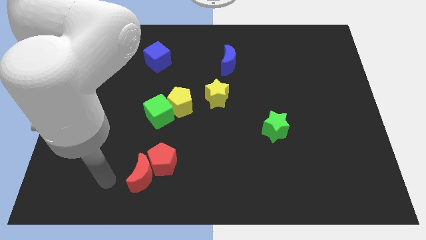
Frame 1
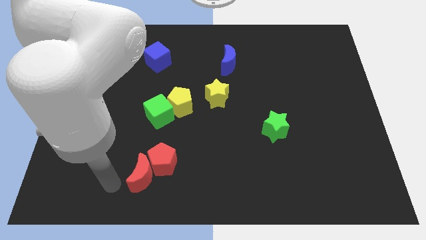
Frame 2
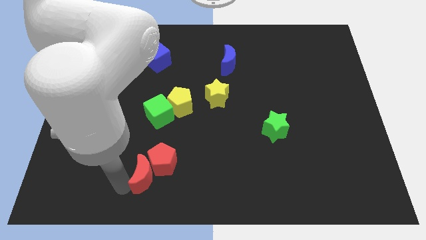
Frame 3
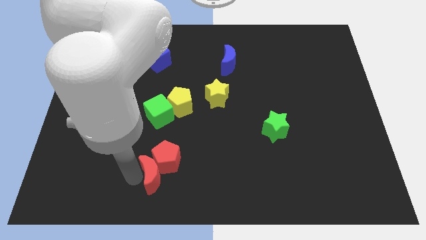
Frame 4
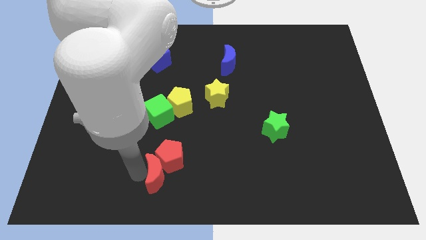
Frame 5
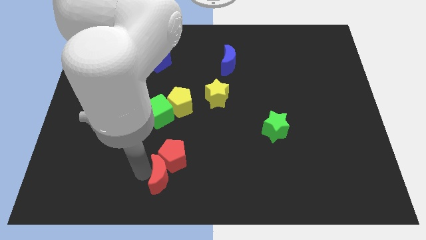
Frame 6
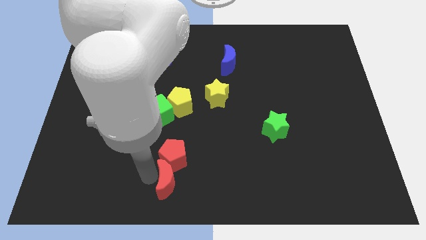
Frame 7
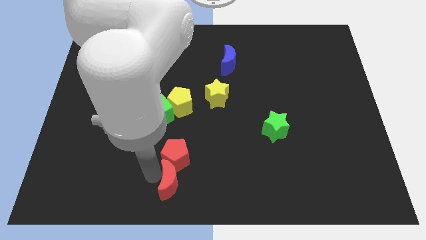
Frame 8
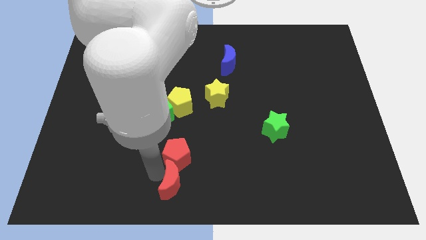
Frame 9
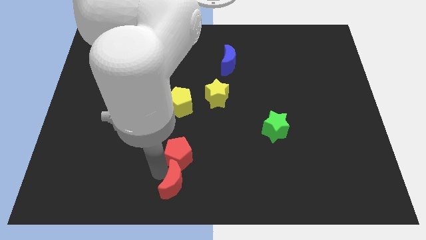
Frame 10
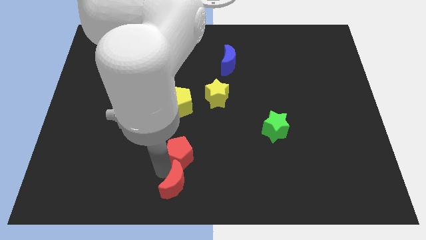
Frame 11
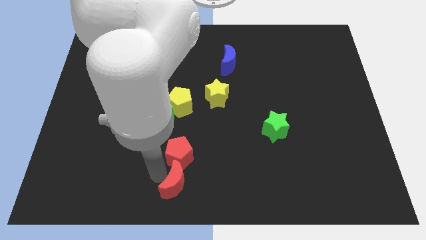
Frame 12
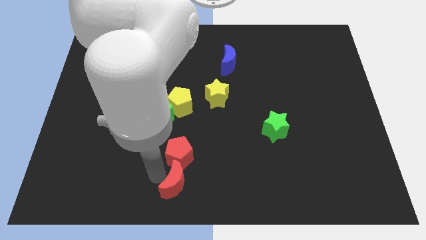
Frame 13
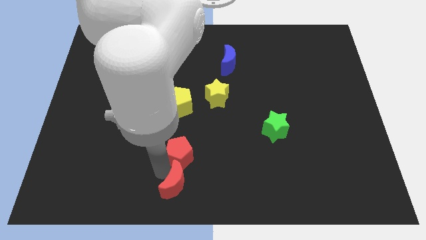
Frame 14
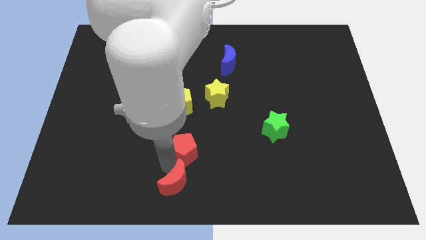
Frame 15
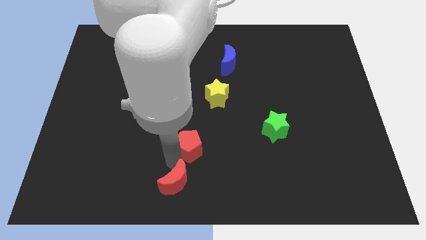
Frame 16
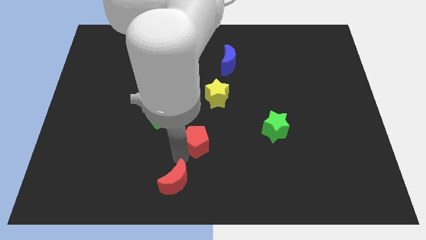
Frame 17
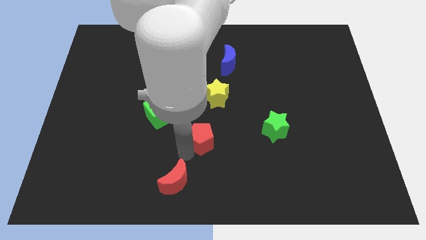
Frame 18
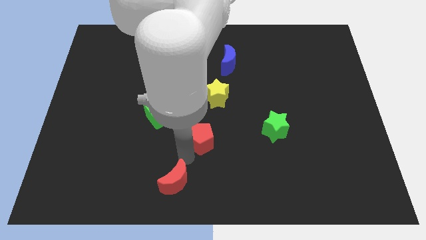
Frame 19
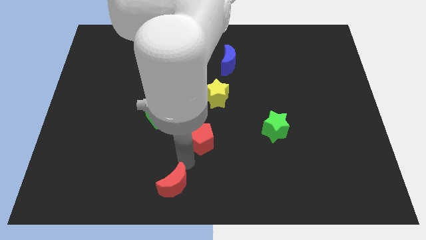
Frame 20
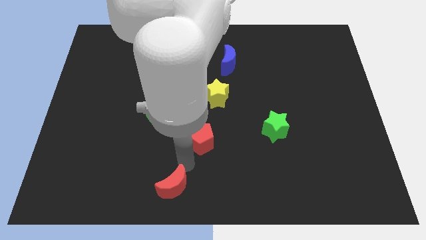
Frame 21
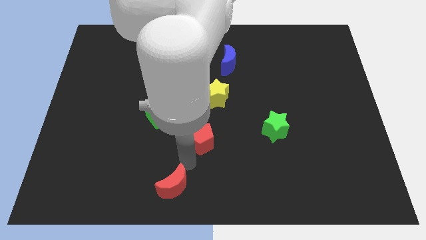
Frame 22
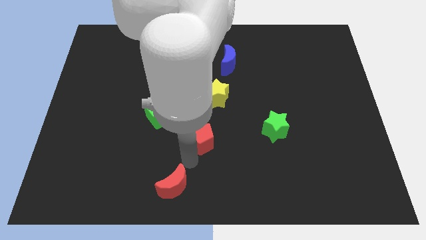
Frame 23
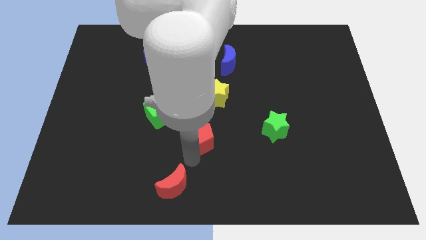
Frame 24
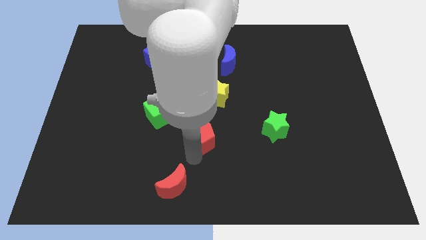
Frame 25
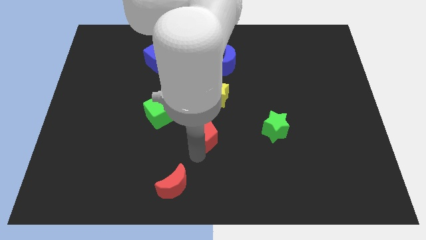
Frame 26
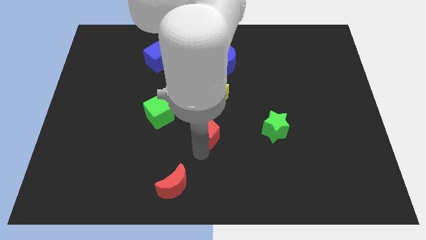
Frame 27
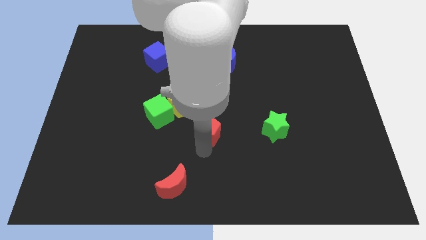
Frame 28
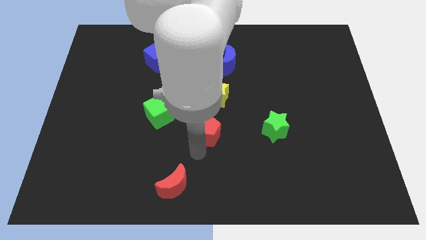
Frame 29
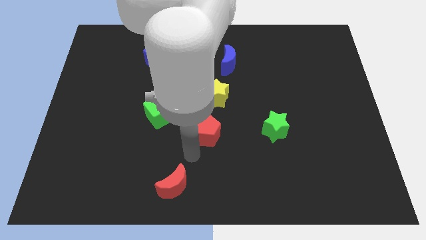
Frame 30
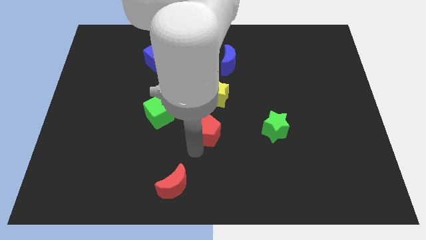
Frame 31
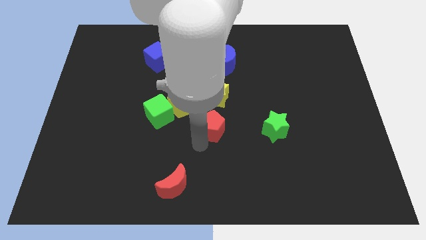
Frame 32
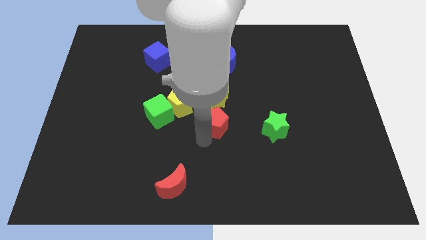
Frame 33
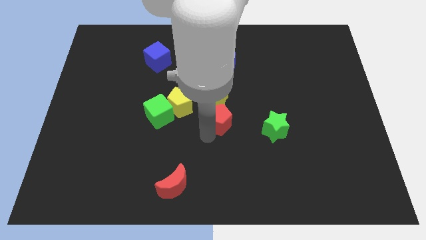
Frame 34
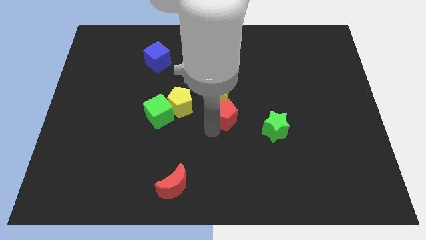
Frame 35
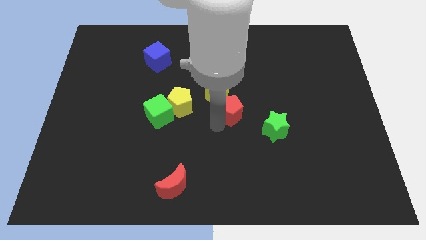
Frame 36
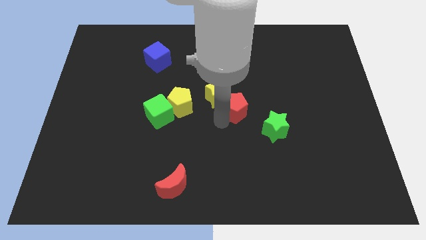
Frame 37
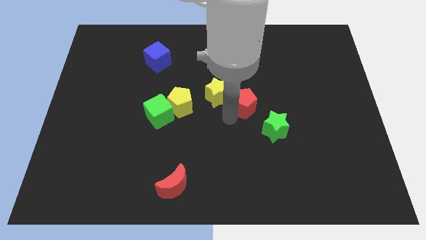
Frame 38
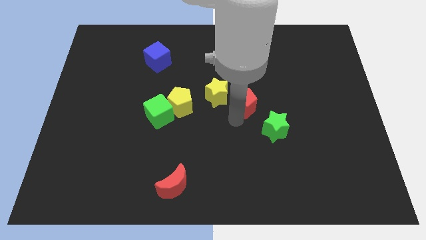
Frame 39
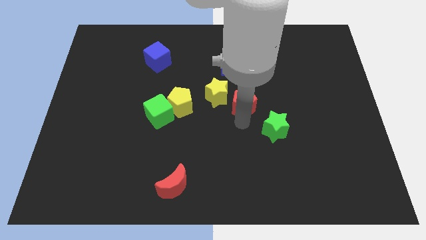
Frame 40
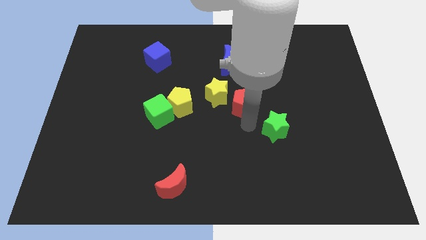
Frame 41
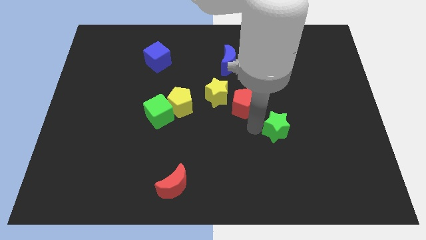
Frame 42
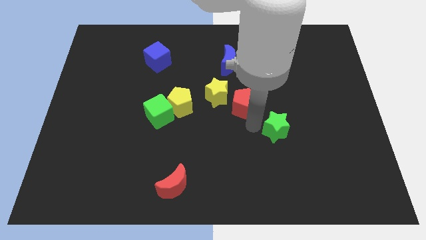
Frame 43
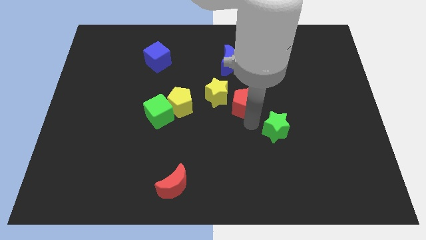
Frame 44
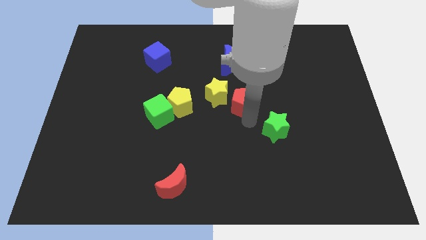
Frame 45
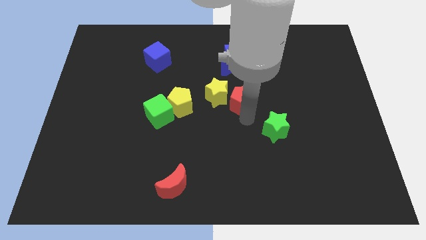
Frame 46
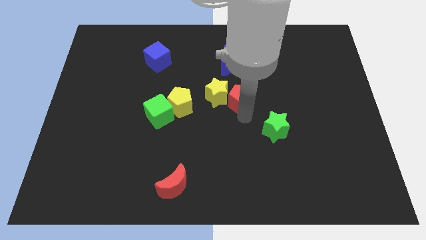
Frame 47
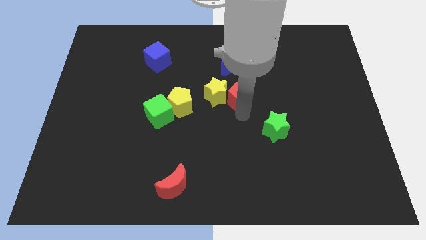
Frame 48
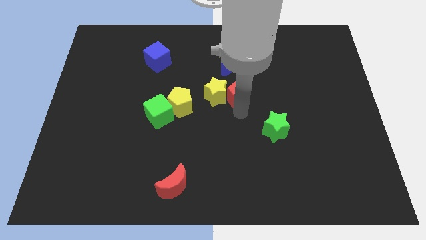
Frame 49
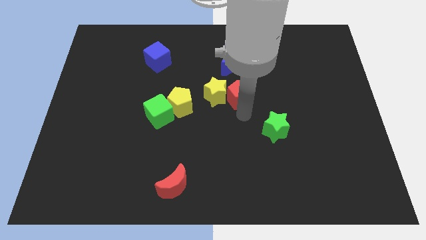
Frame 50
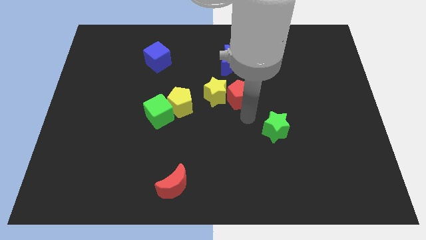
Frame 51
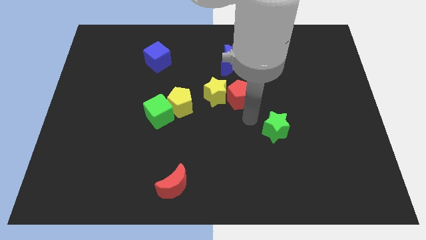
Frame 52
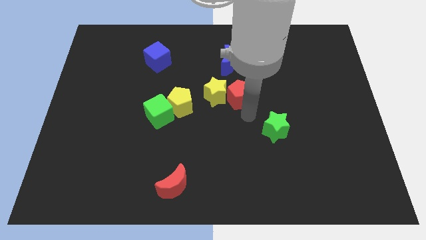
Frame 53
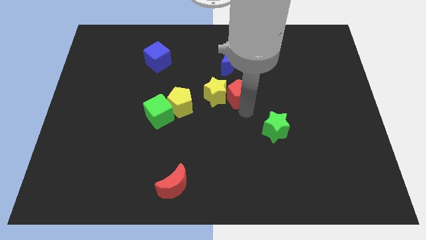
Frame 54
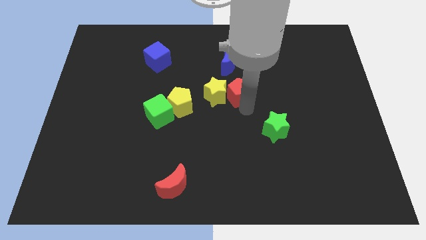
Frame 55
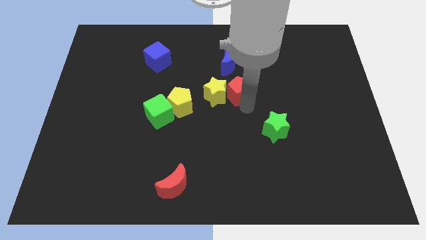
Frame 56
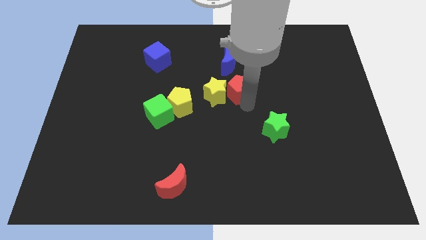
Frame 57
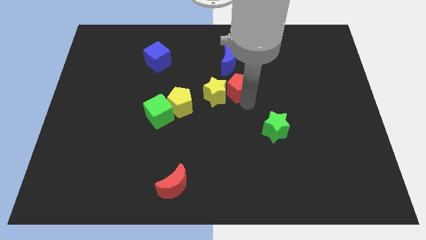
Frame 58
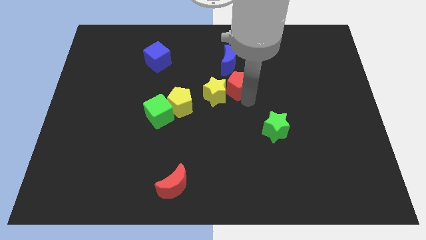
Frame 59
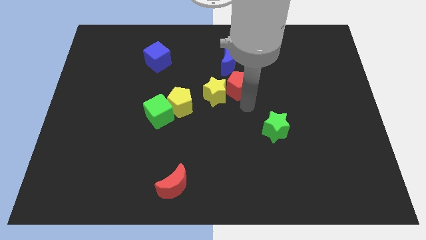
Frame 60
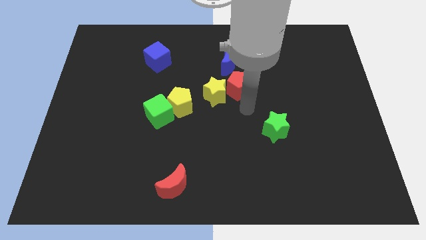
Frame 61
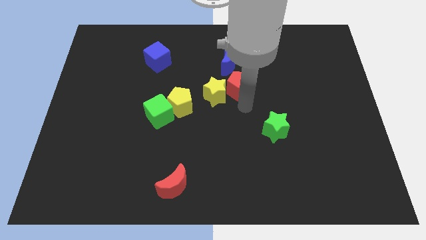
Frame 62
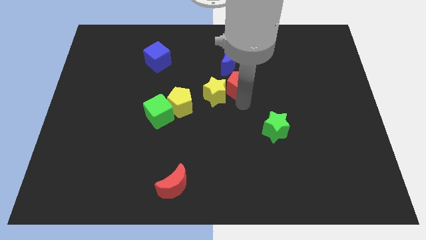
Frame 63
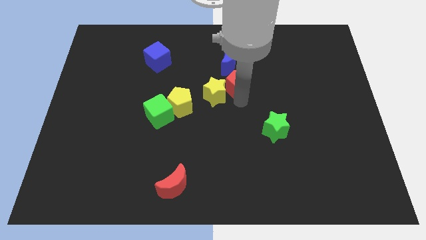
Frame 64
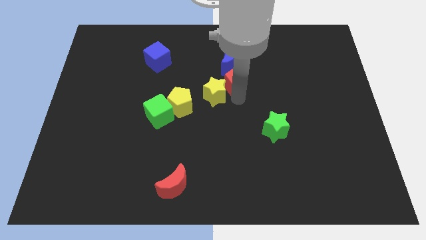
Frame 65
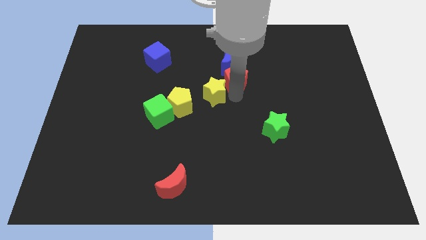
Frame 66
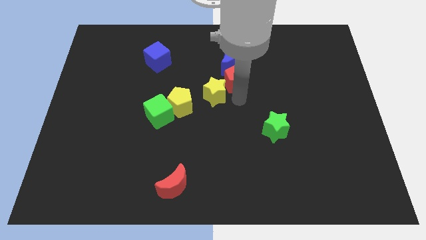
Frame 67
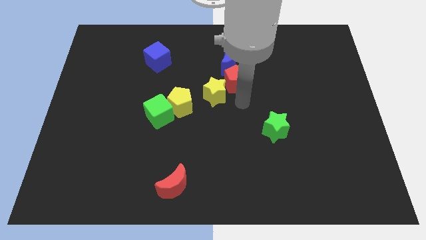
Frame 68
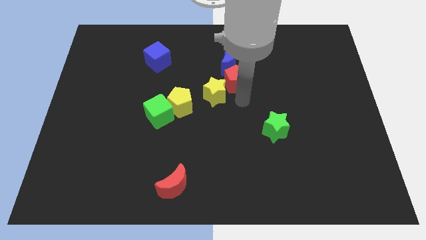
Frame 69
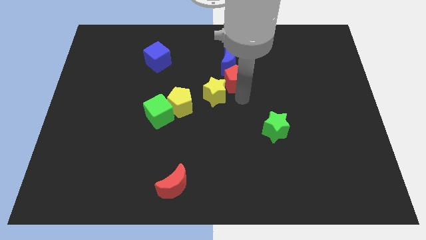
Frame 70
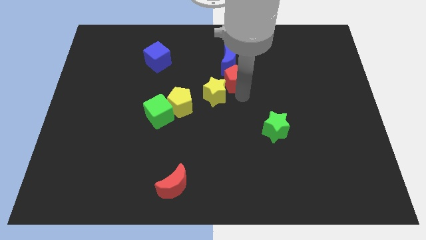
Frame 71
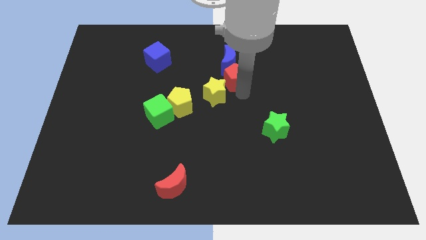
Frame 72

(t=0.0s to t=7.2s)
push the red pentagon next to the blue moon
